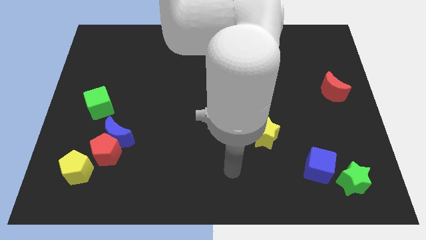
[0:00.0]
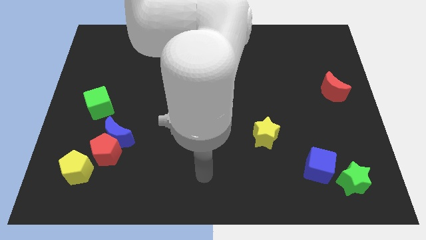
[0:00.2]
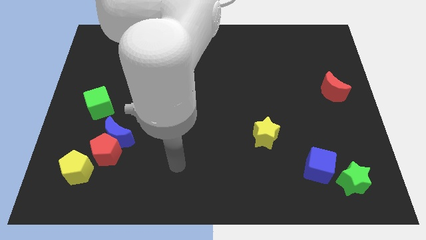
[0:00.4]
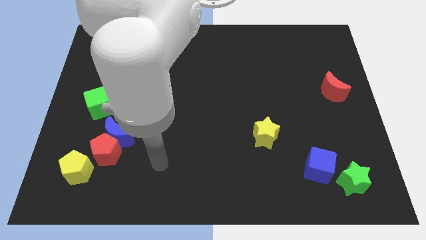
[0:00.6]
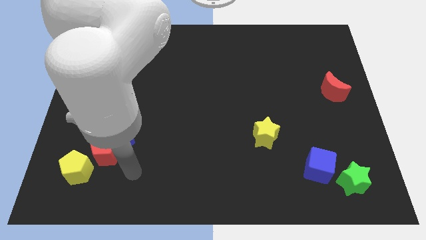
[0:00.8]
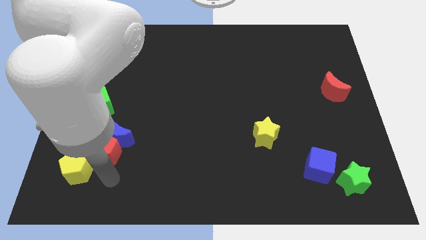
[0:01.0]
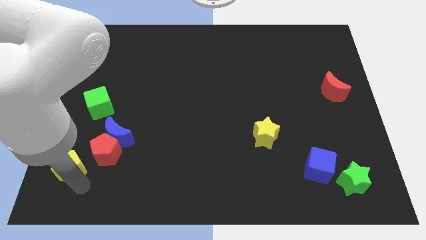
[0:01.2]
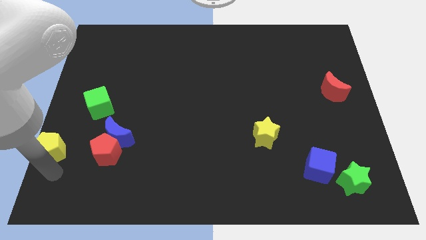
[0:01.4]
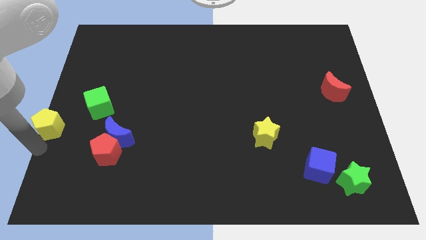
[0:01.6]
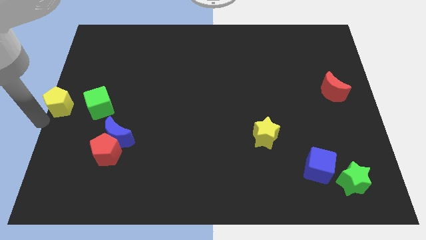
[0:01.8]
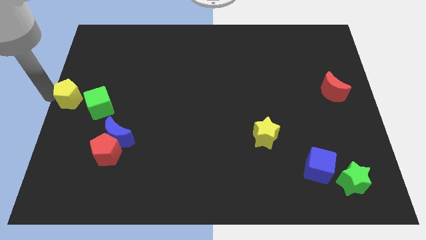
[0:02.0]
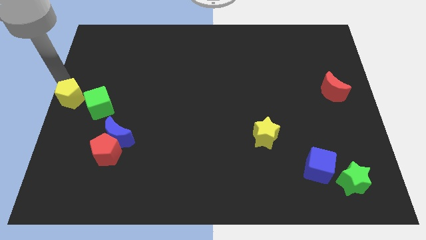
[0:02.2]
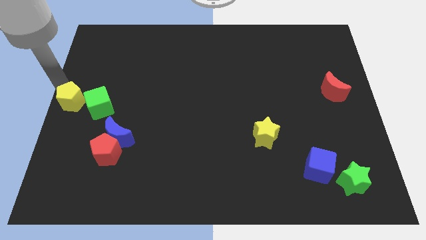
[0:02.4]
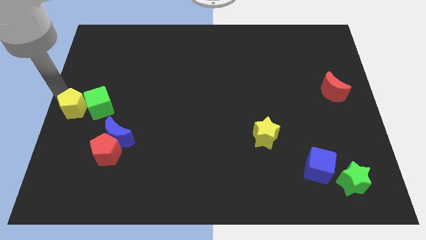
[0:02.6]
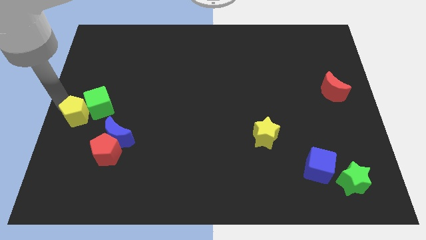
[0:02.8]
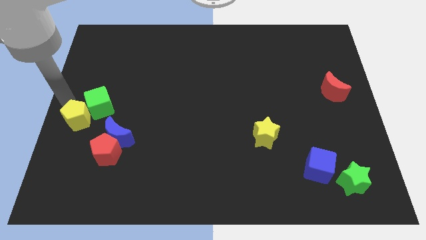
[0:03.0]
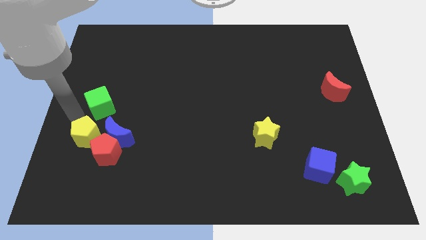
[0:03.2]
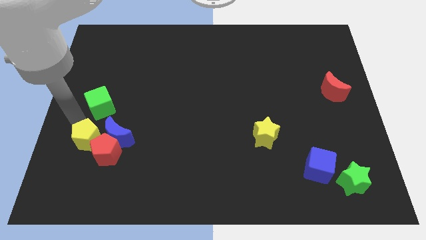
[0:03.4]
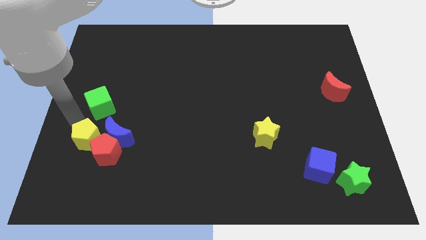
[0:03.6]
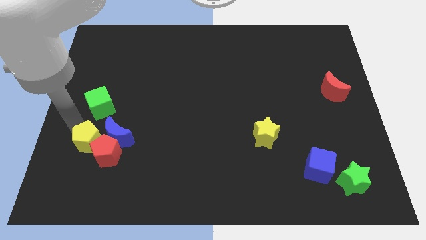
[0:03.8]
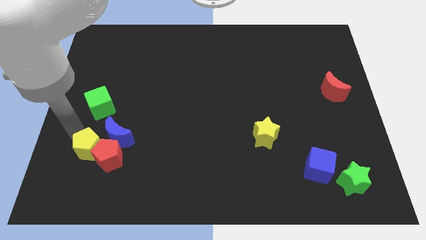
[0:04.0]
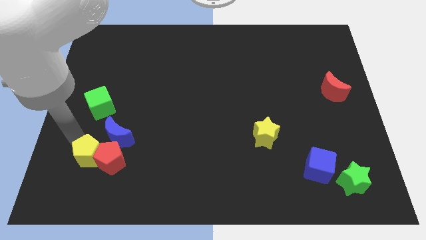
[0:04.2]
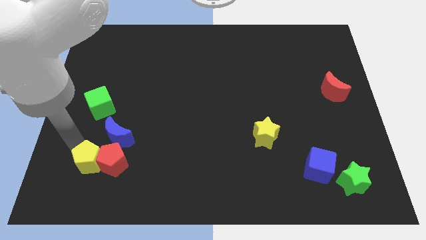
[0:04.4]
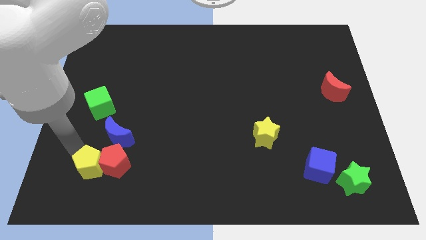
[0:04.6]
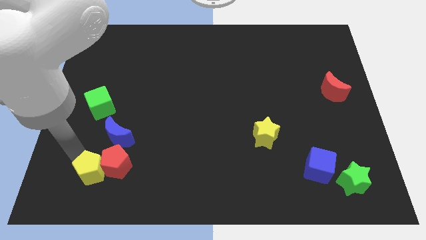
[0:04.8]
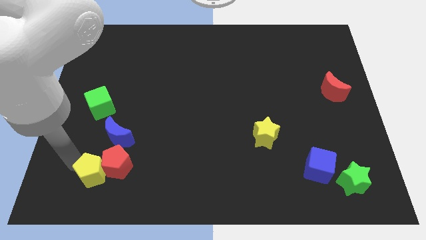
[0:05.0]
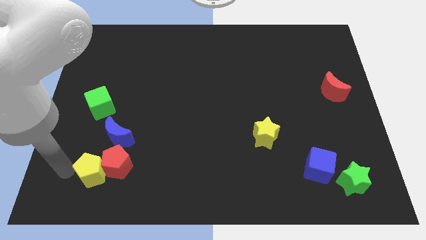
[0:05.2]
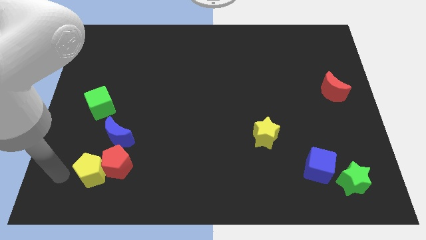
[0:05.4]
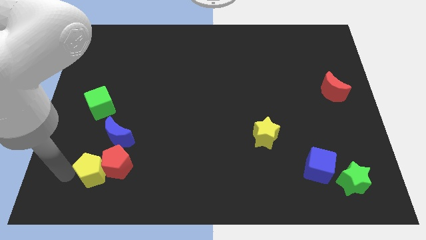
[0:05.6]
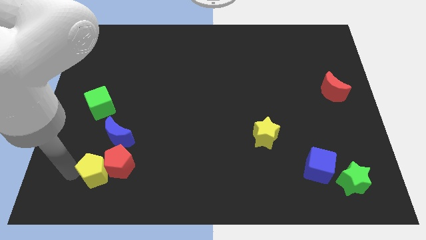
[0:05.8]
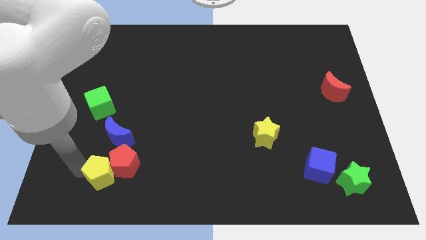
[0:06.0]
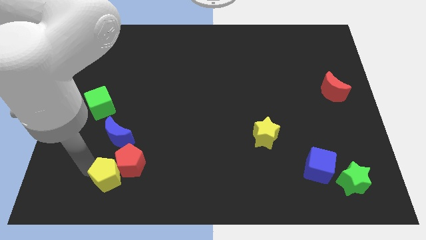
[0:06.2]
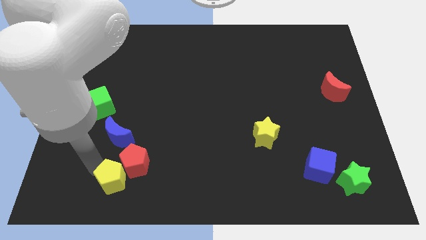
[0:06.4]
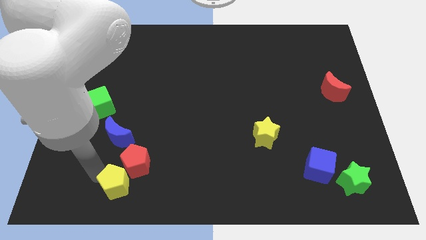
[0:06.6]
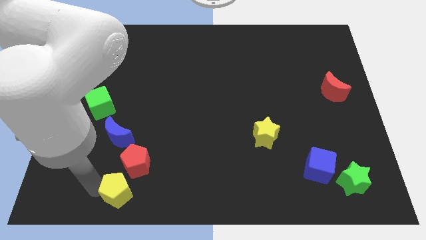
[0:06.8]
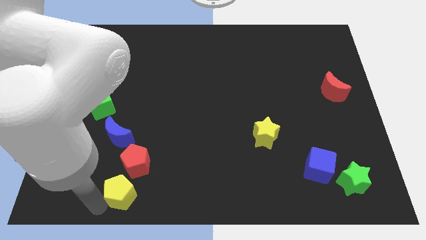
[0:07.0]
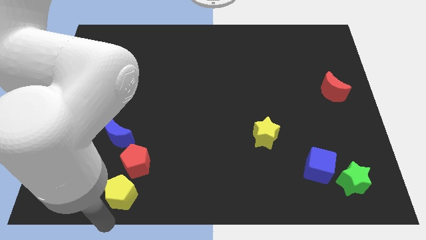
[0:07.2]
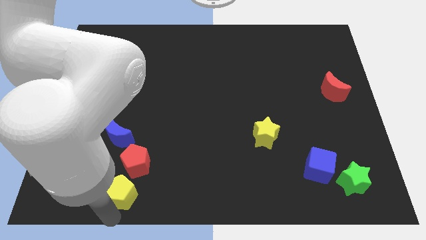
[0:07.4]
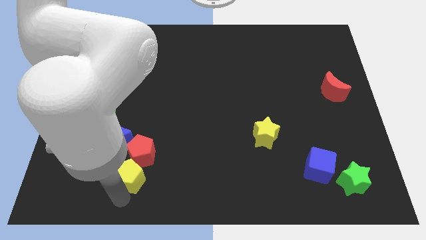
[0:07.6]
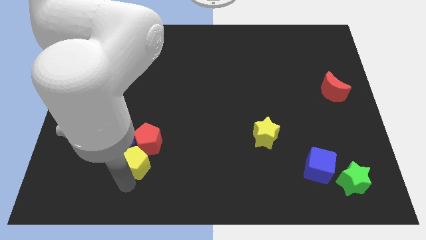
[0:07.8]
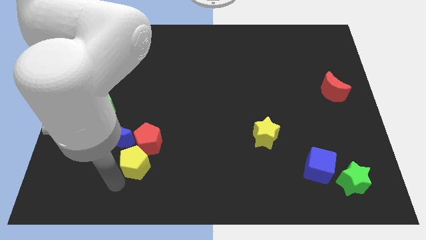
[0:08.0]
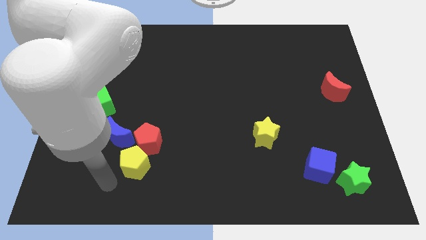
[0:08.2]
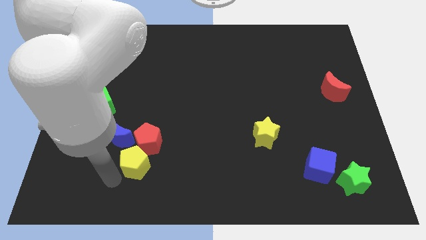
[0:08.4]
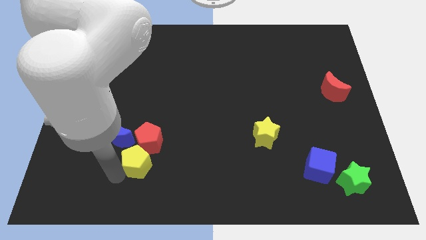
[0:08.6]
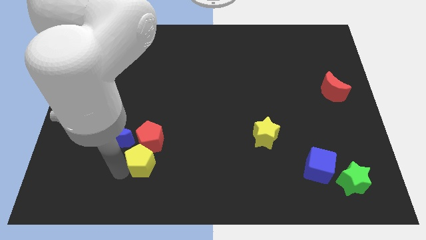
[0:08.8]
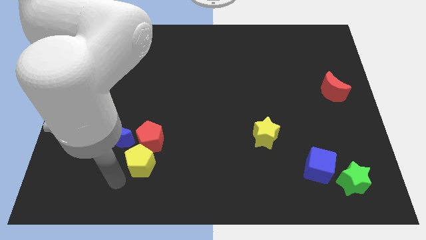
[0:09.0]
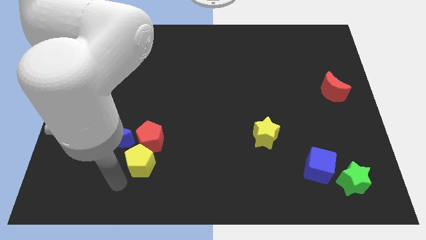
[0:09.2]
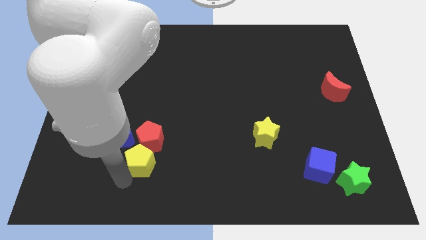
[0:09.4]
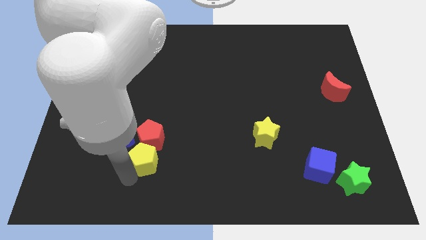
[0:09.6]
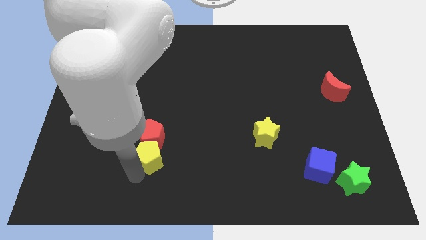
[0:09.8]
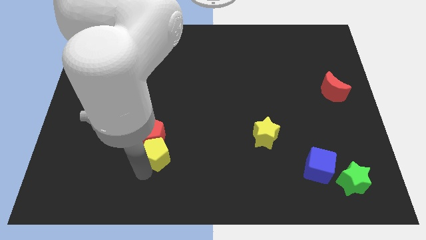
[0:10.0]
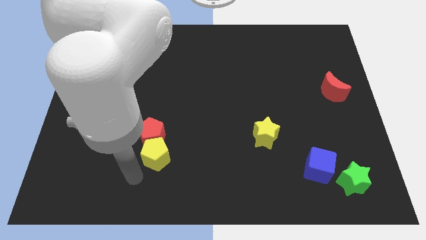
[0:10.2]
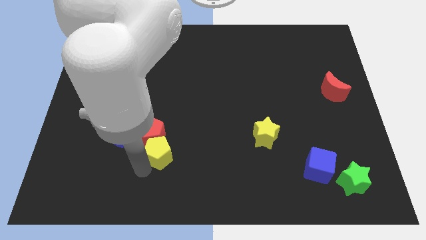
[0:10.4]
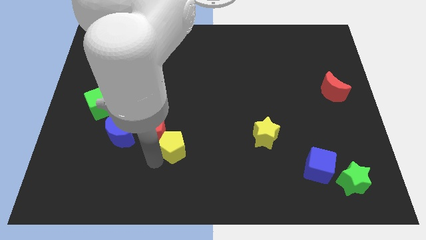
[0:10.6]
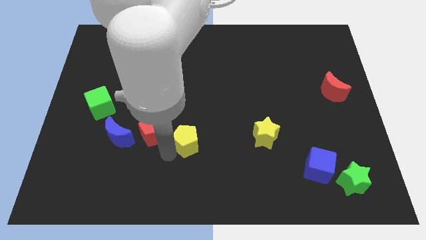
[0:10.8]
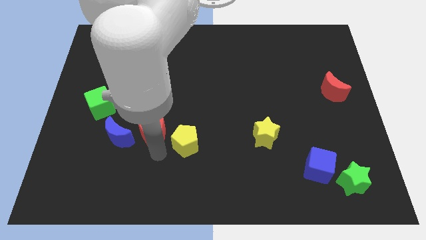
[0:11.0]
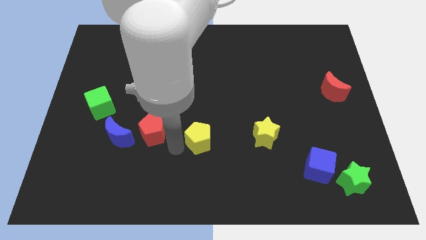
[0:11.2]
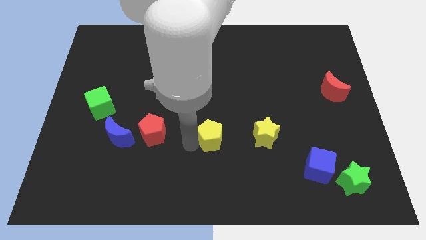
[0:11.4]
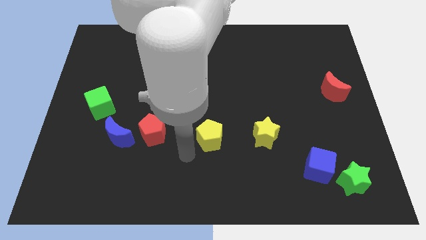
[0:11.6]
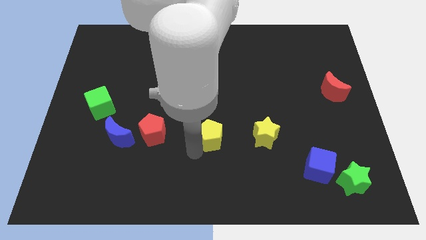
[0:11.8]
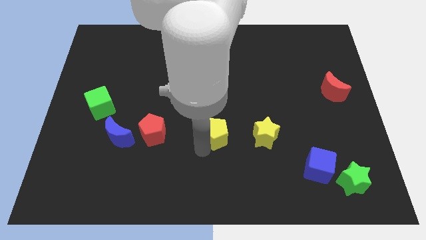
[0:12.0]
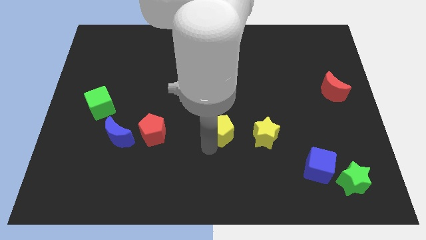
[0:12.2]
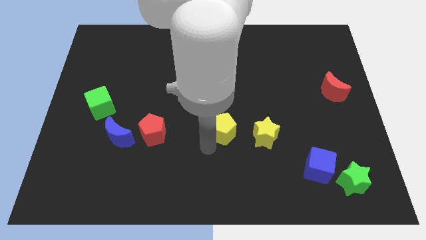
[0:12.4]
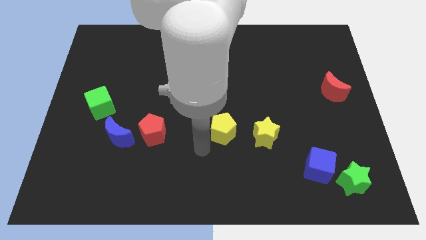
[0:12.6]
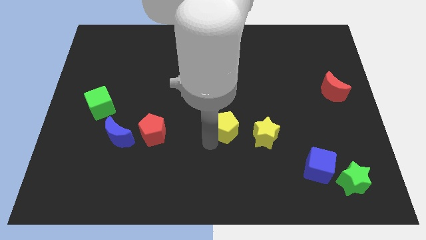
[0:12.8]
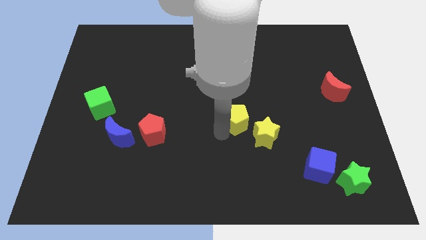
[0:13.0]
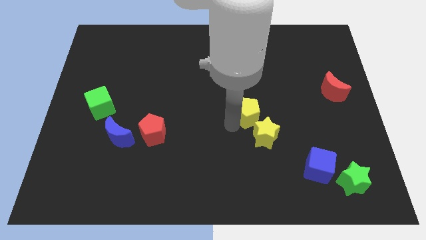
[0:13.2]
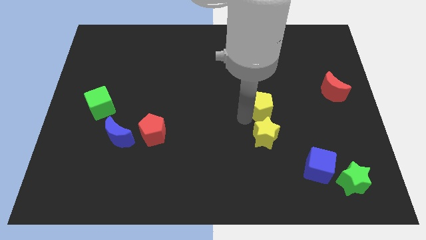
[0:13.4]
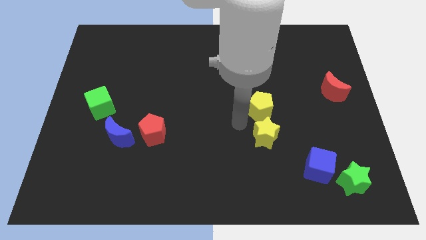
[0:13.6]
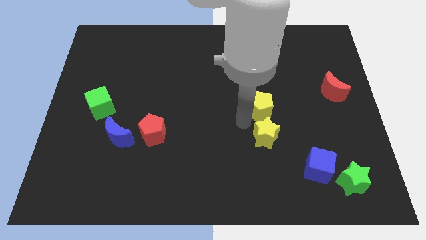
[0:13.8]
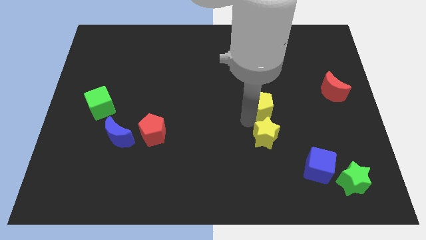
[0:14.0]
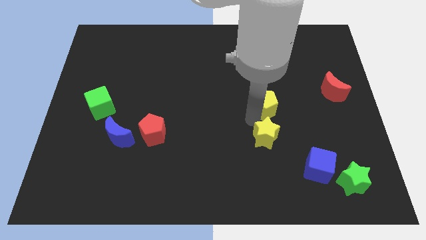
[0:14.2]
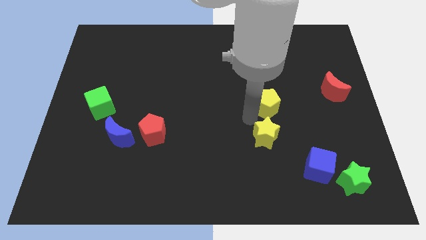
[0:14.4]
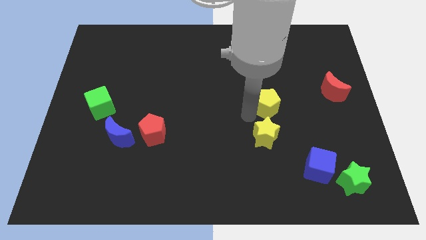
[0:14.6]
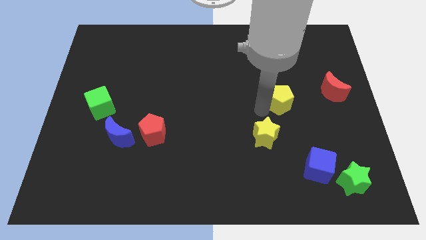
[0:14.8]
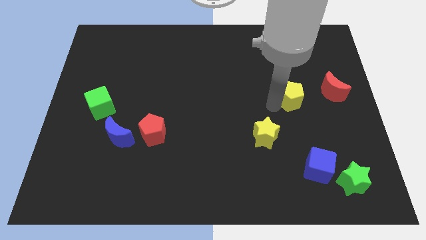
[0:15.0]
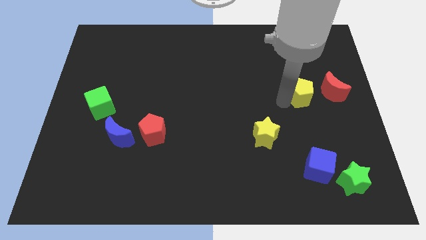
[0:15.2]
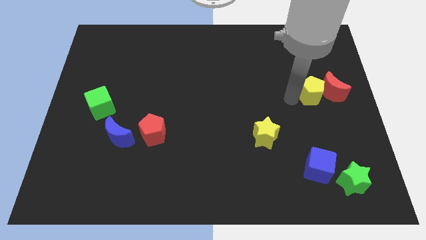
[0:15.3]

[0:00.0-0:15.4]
put the yellow pentagon close to the red moon
